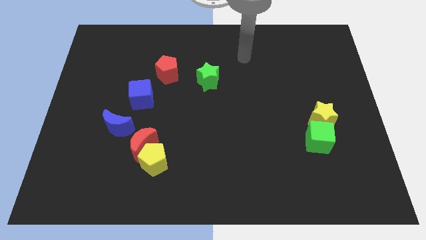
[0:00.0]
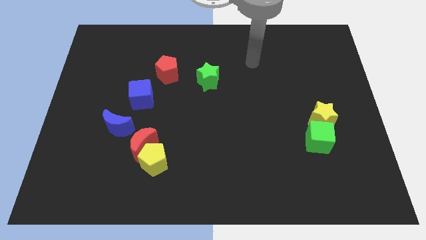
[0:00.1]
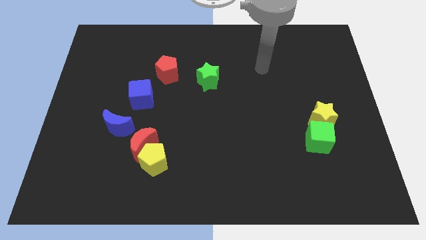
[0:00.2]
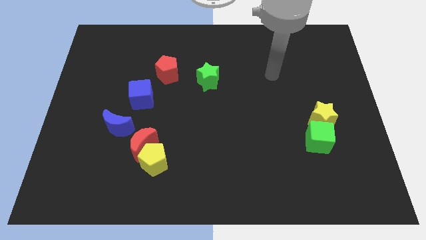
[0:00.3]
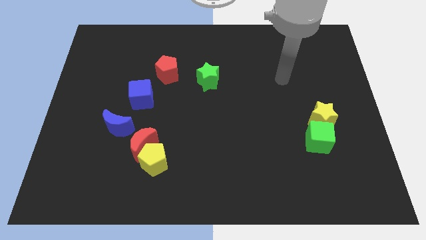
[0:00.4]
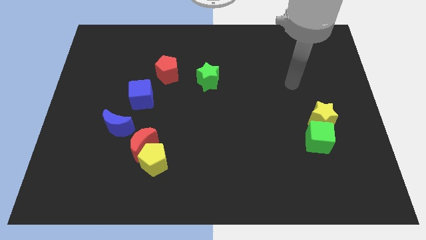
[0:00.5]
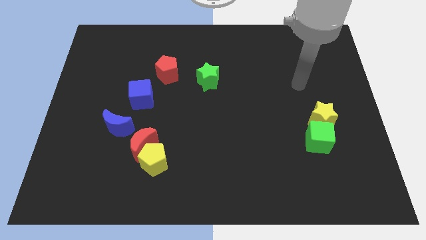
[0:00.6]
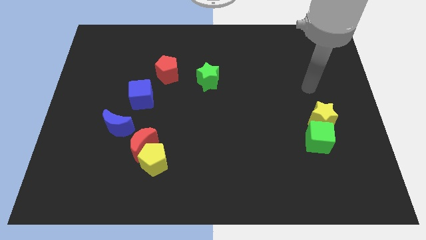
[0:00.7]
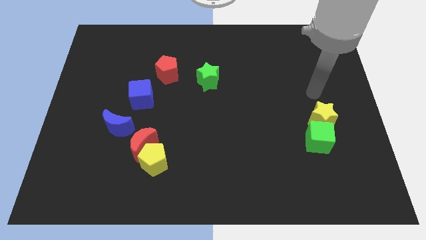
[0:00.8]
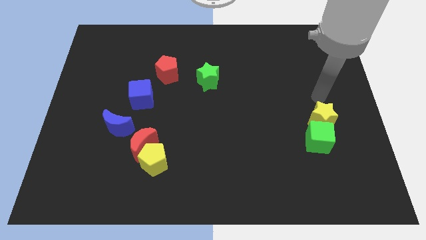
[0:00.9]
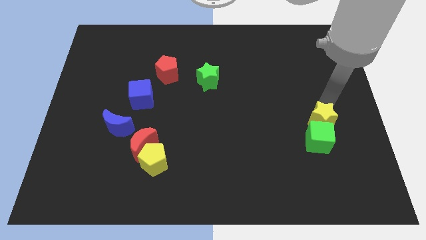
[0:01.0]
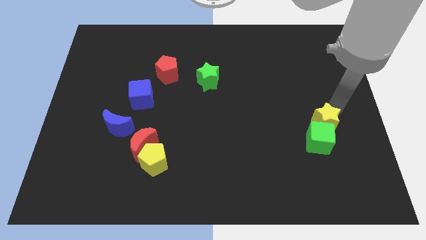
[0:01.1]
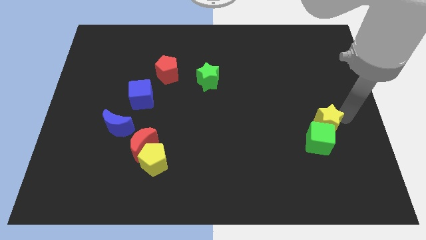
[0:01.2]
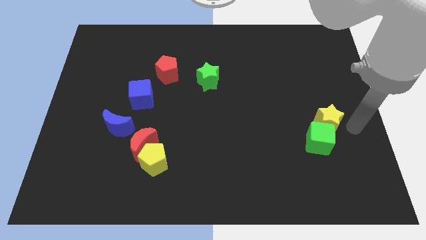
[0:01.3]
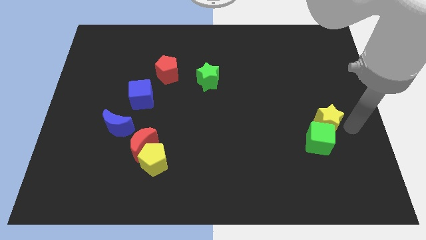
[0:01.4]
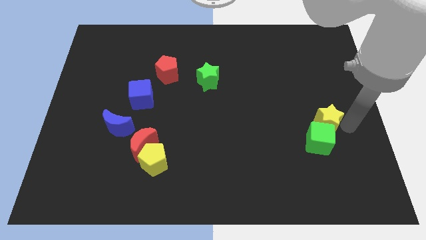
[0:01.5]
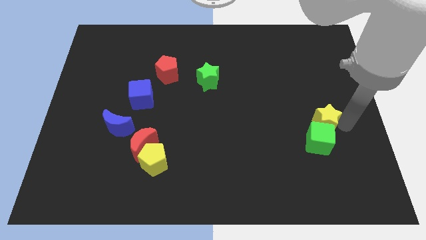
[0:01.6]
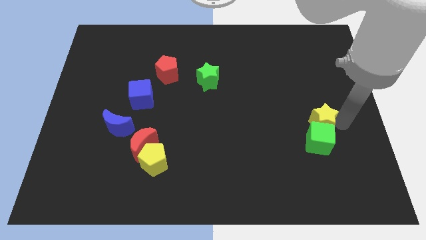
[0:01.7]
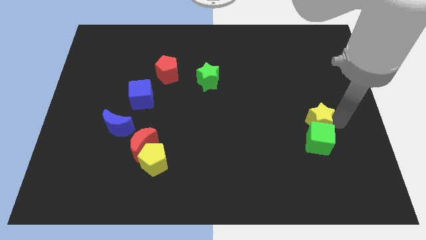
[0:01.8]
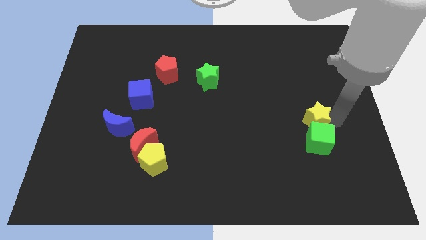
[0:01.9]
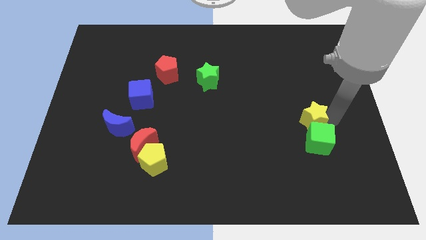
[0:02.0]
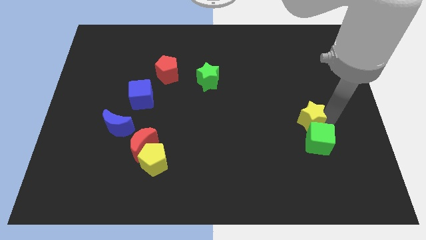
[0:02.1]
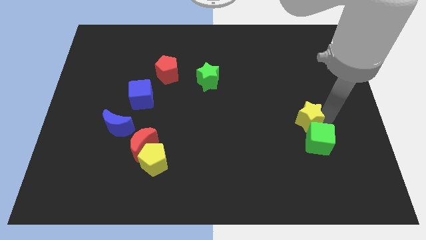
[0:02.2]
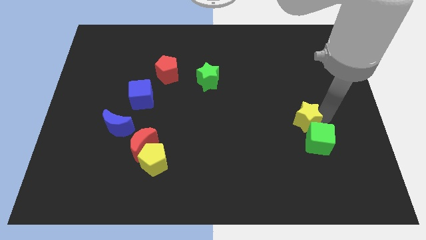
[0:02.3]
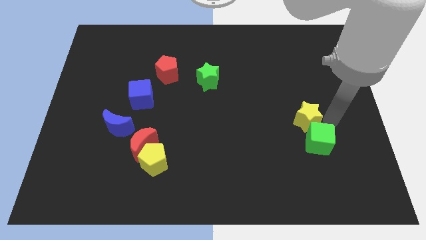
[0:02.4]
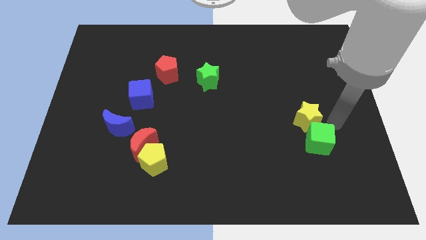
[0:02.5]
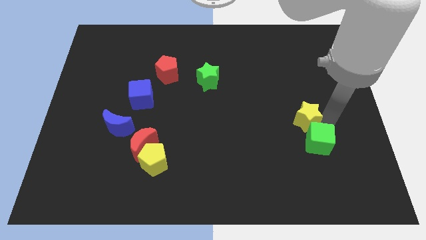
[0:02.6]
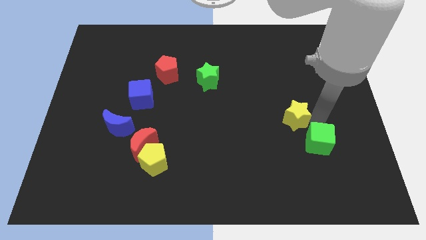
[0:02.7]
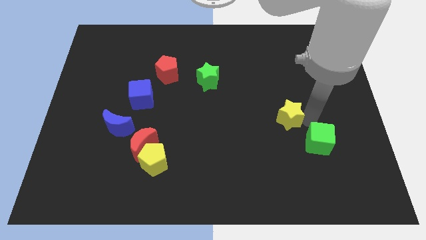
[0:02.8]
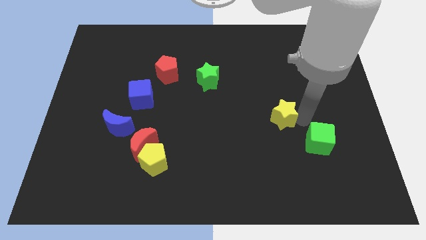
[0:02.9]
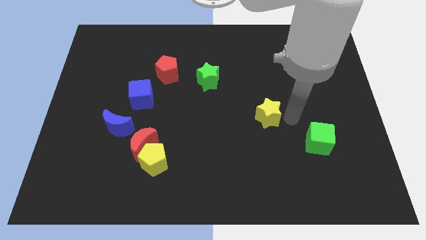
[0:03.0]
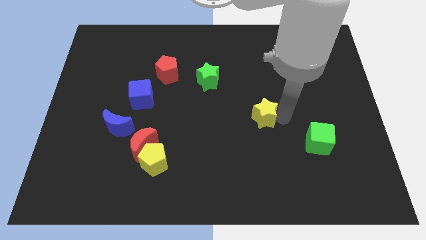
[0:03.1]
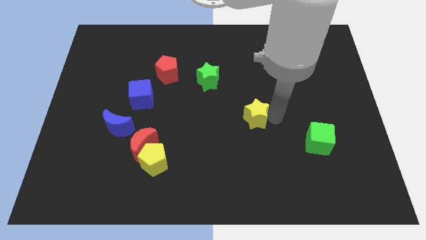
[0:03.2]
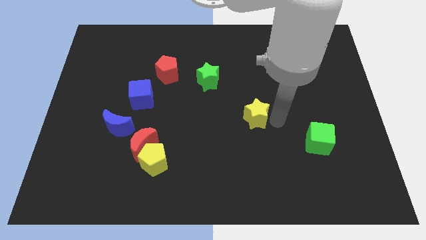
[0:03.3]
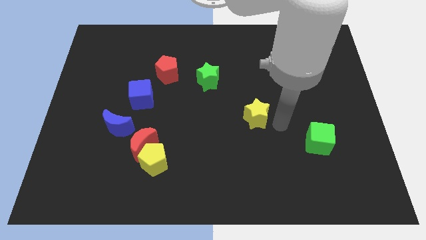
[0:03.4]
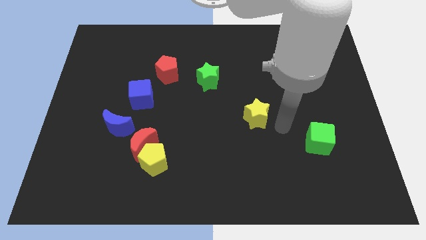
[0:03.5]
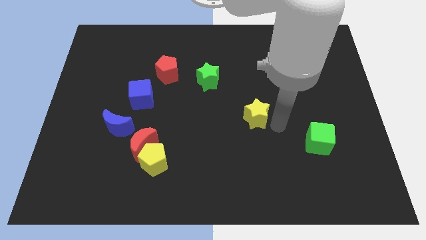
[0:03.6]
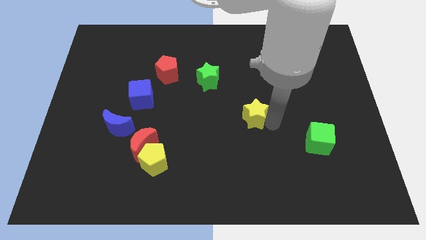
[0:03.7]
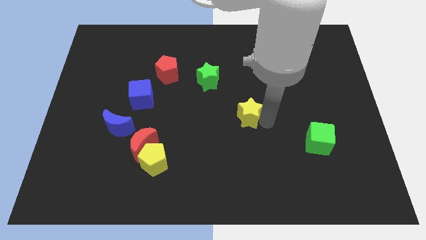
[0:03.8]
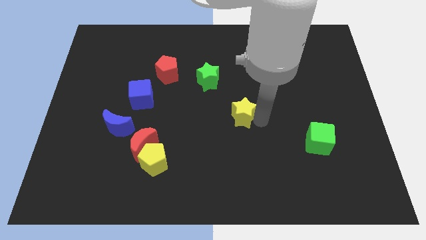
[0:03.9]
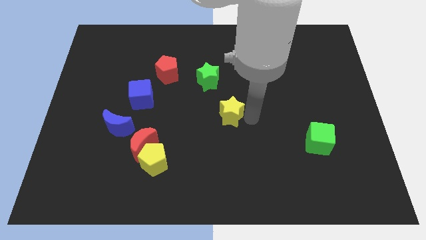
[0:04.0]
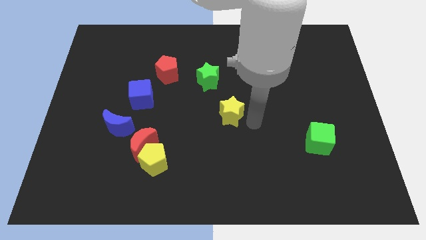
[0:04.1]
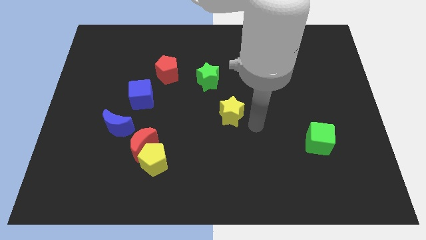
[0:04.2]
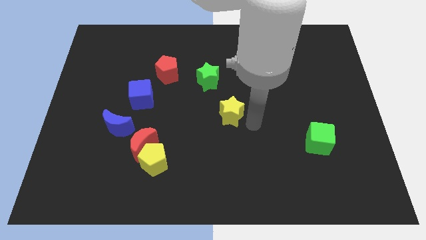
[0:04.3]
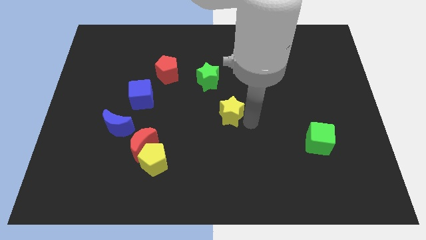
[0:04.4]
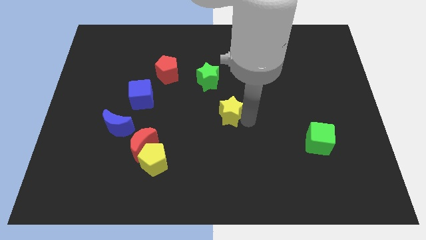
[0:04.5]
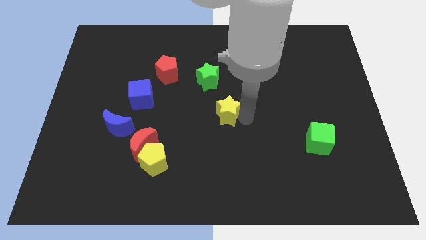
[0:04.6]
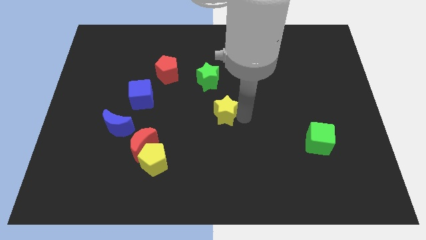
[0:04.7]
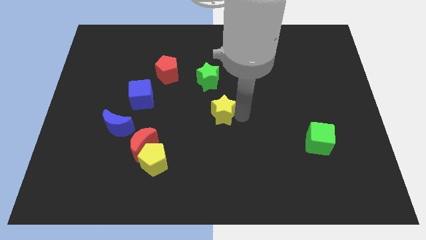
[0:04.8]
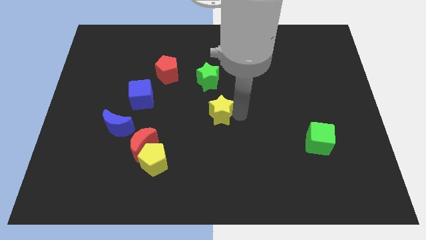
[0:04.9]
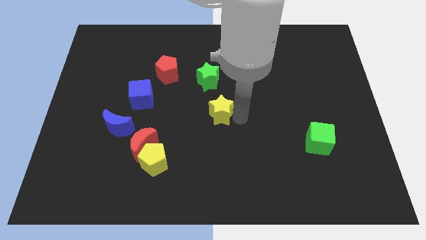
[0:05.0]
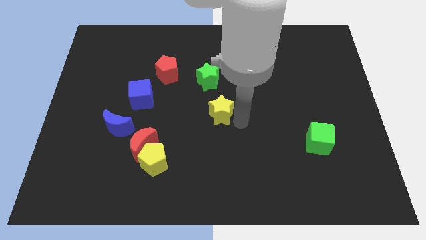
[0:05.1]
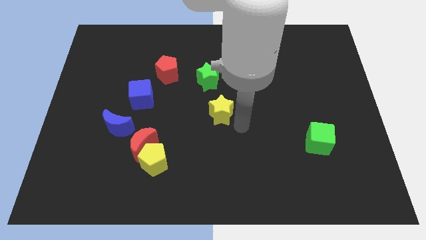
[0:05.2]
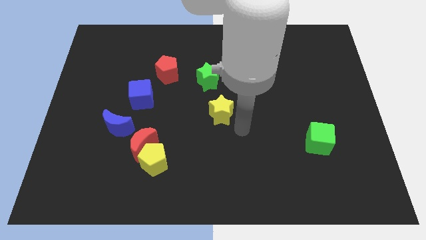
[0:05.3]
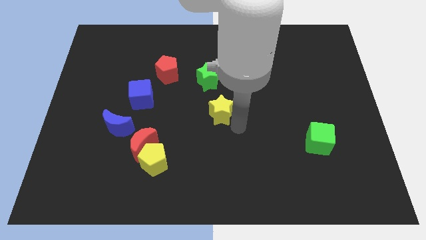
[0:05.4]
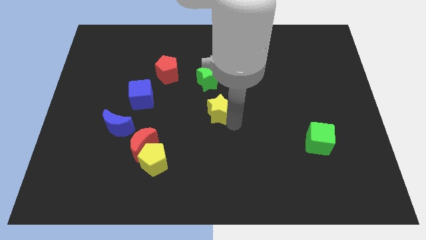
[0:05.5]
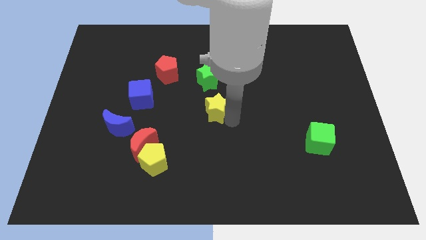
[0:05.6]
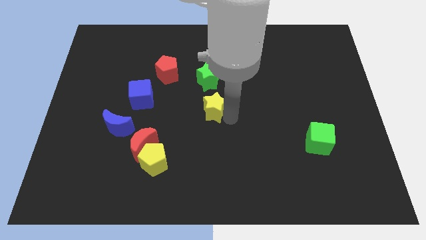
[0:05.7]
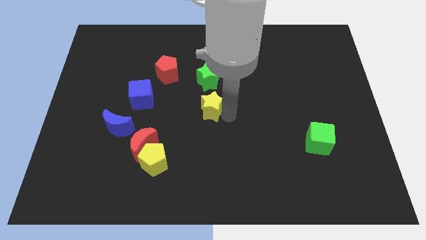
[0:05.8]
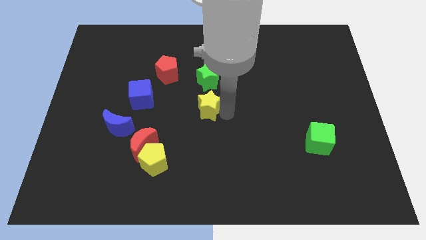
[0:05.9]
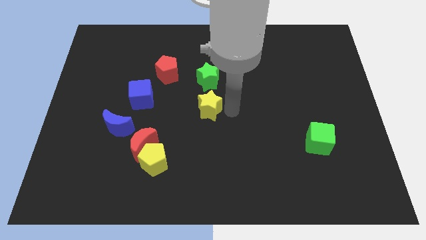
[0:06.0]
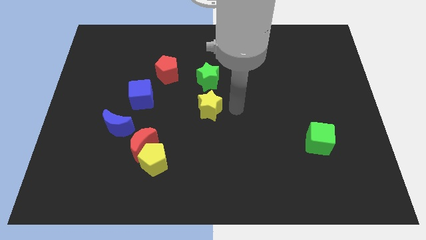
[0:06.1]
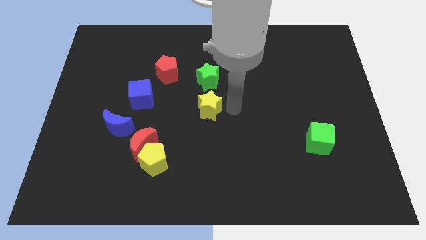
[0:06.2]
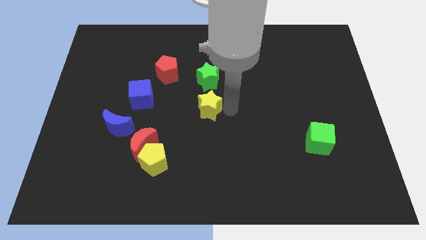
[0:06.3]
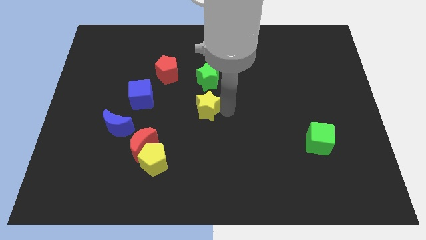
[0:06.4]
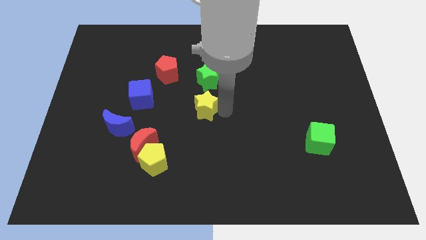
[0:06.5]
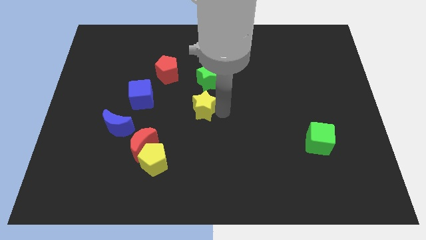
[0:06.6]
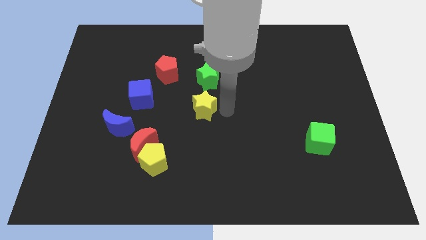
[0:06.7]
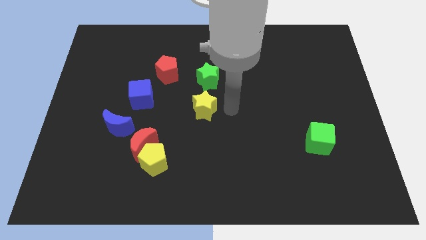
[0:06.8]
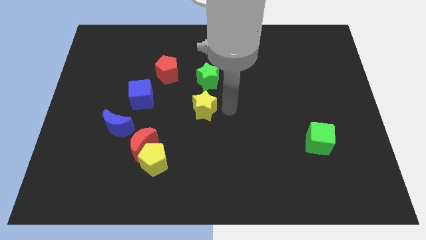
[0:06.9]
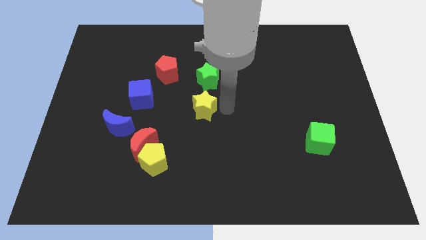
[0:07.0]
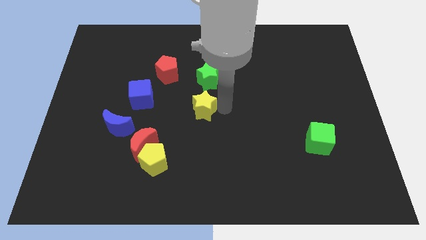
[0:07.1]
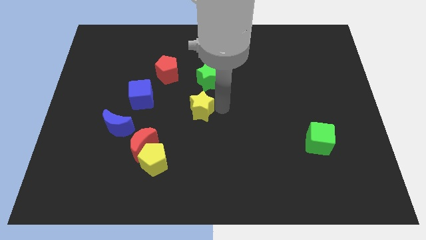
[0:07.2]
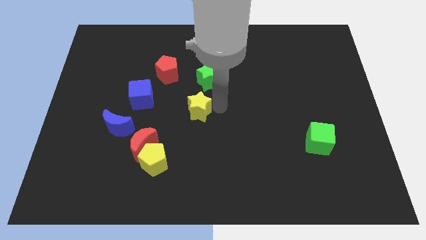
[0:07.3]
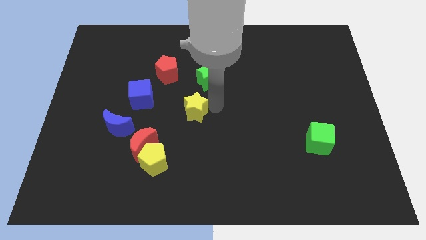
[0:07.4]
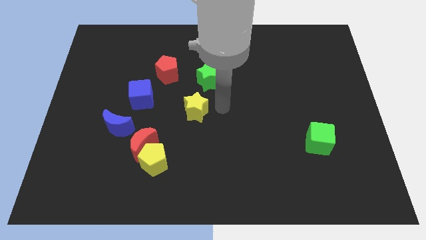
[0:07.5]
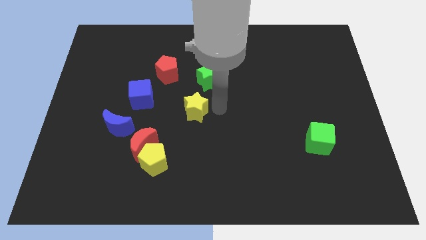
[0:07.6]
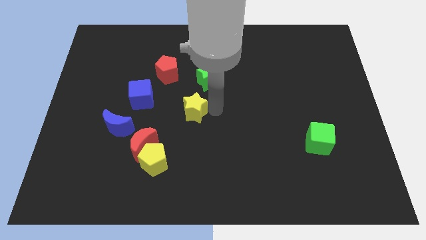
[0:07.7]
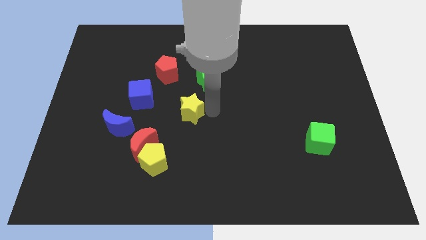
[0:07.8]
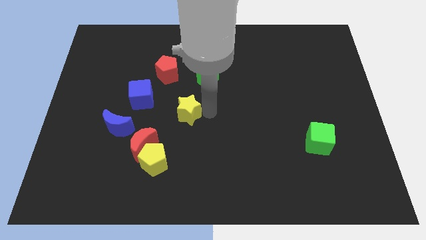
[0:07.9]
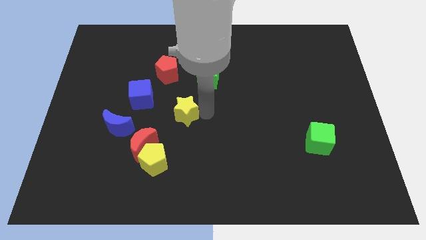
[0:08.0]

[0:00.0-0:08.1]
slide the yellow star diagonally down and to the right of the blue cube

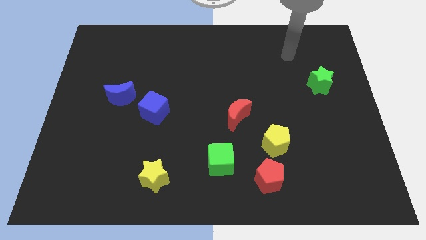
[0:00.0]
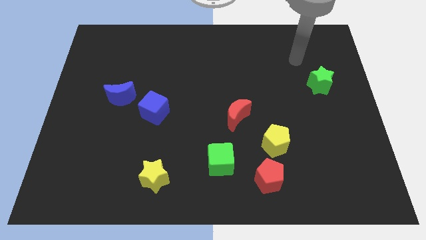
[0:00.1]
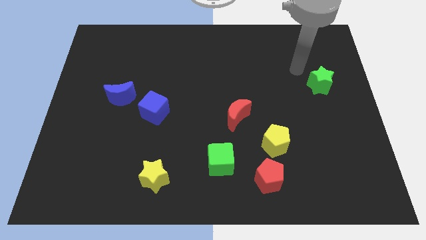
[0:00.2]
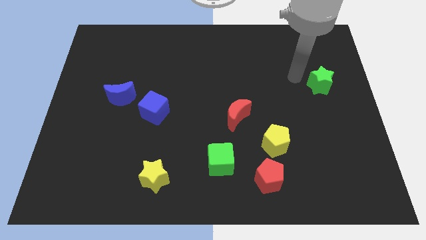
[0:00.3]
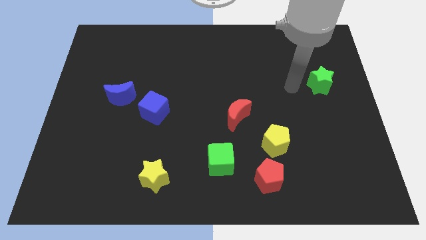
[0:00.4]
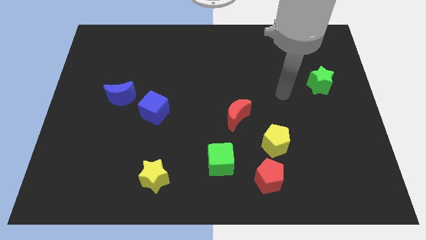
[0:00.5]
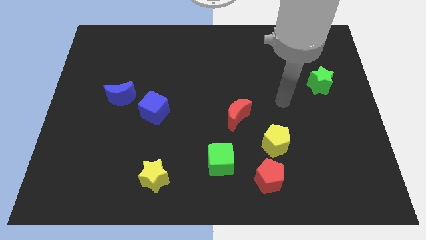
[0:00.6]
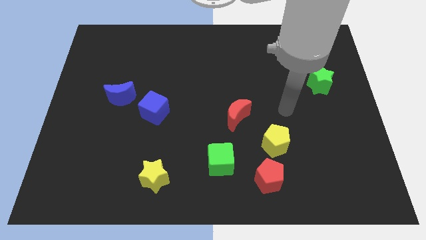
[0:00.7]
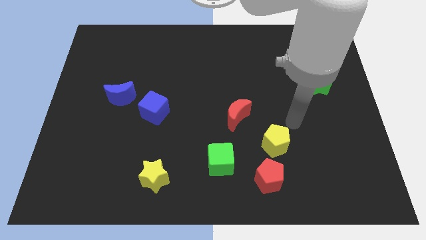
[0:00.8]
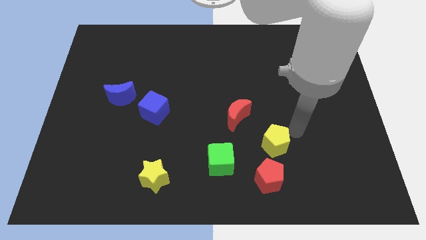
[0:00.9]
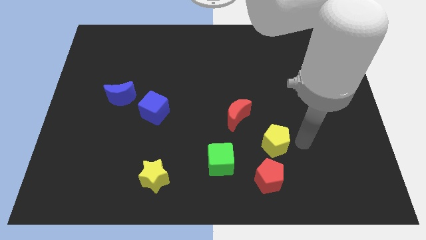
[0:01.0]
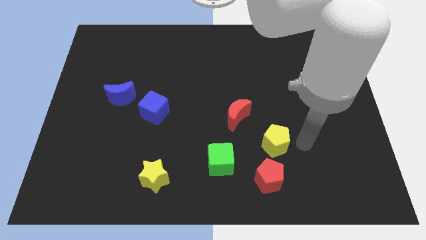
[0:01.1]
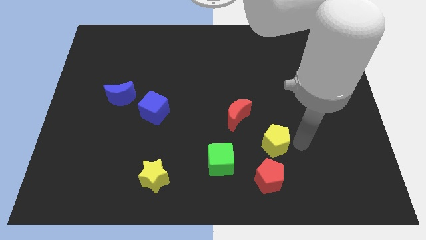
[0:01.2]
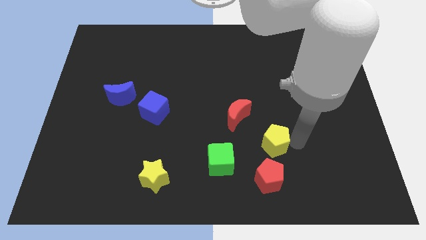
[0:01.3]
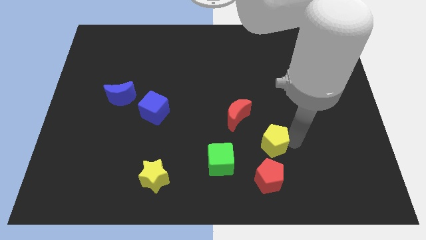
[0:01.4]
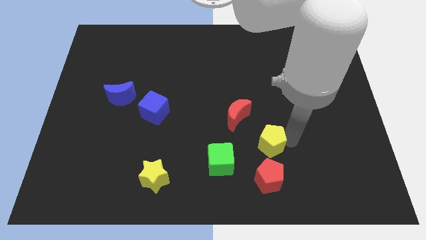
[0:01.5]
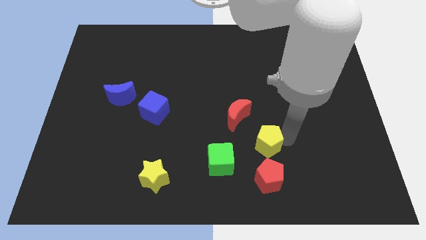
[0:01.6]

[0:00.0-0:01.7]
push the yellow pentagon to the top right side of the green cube
